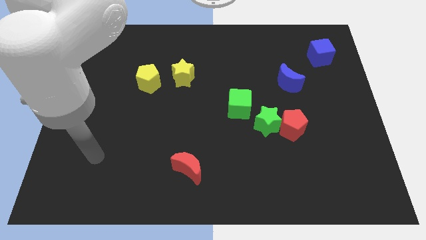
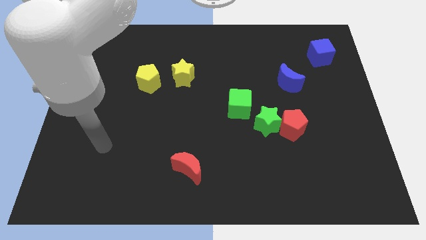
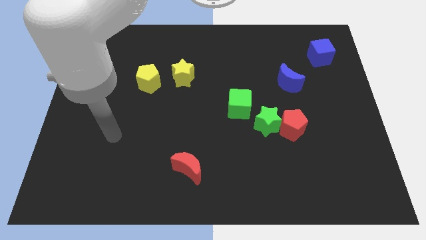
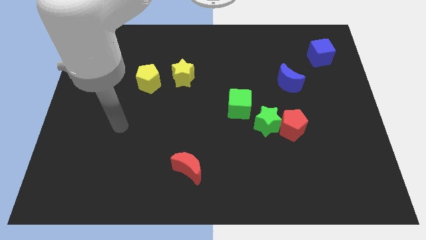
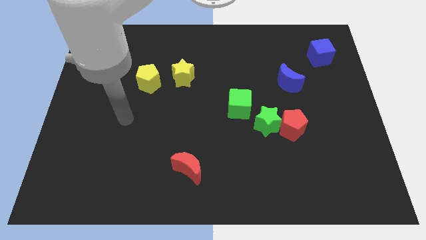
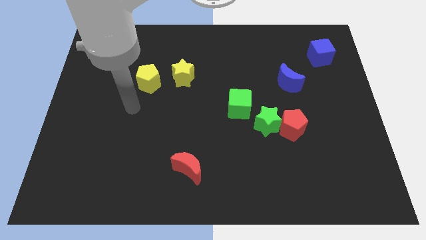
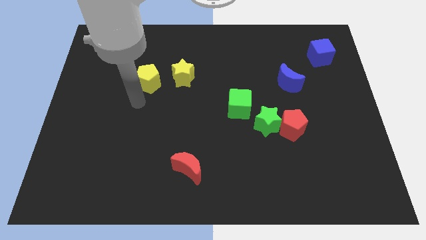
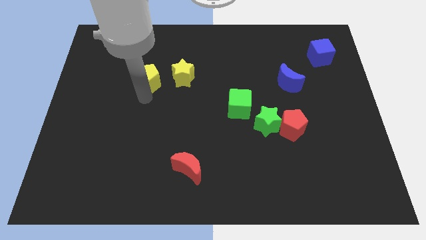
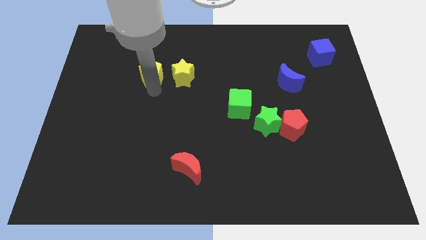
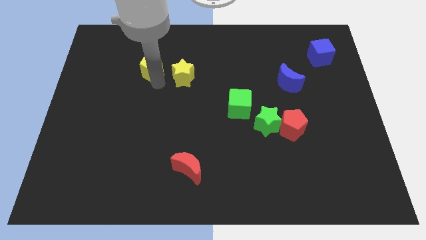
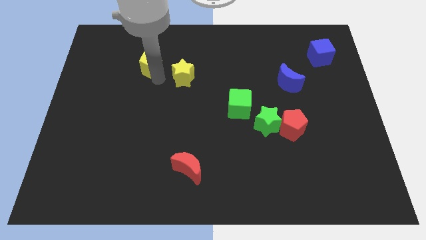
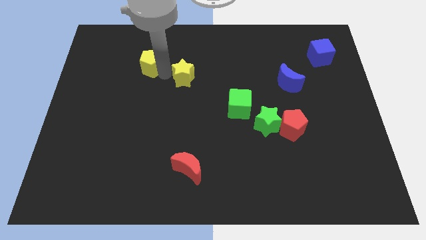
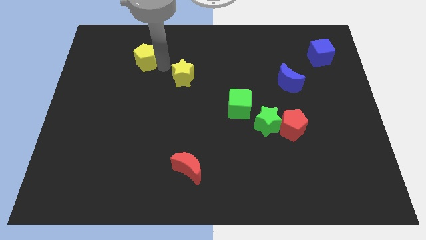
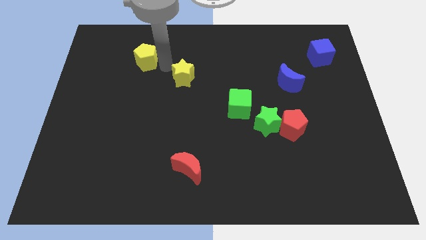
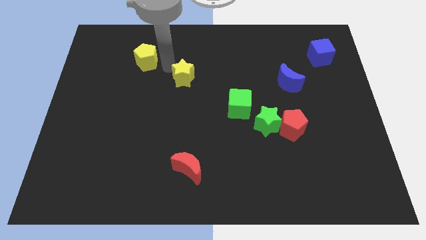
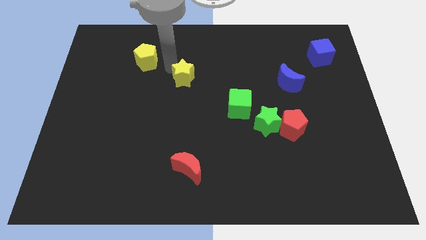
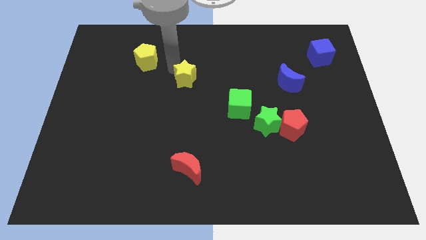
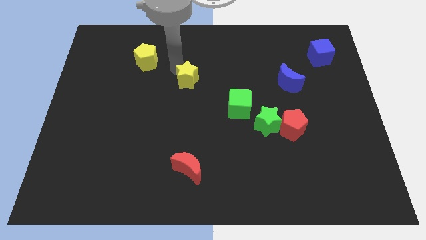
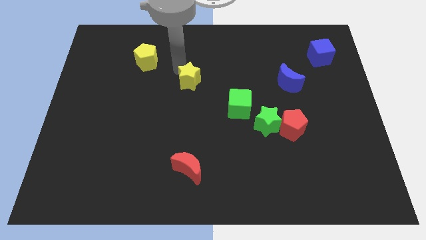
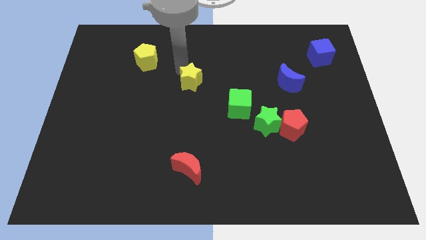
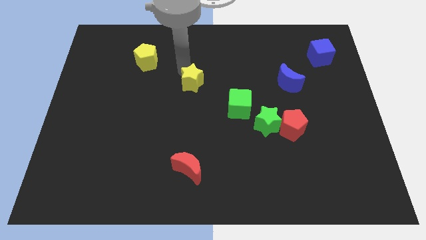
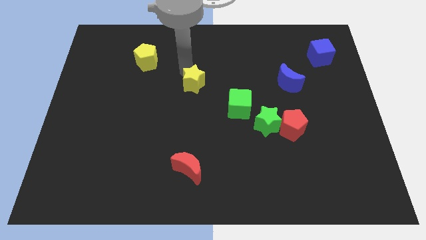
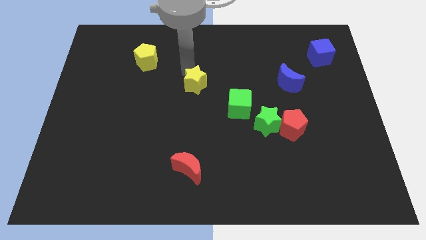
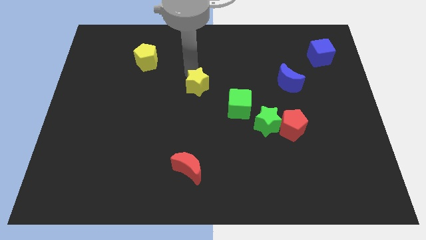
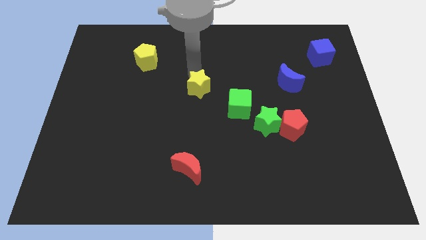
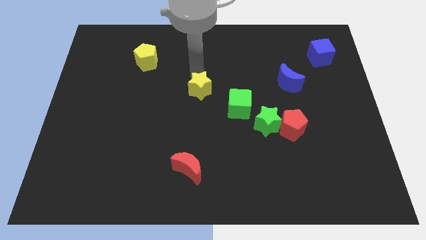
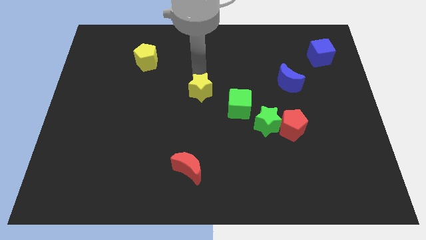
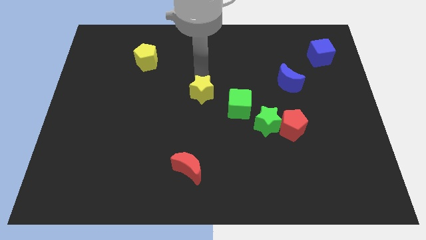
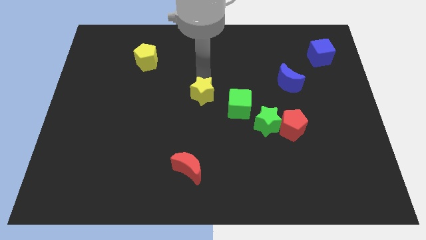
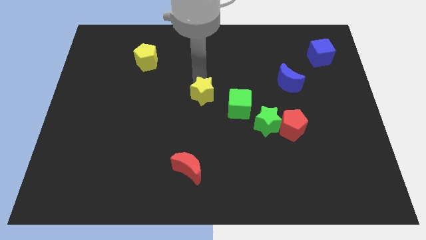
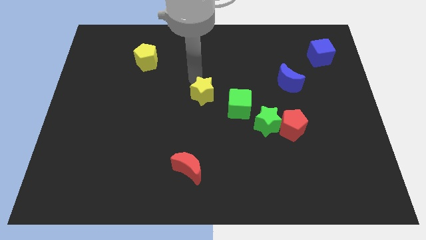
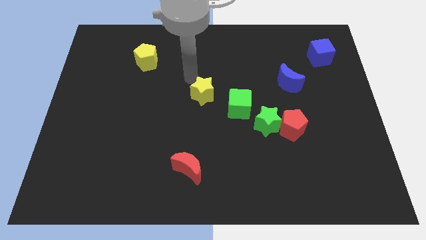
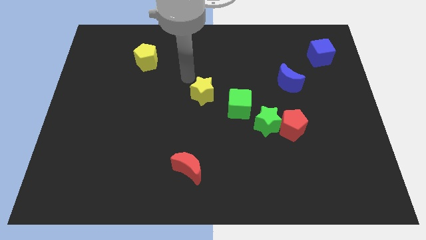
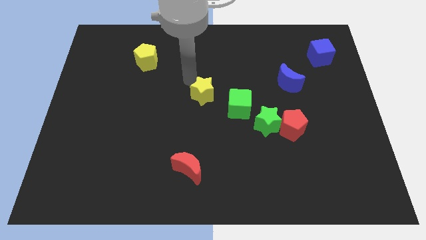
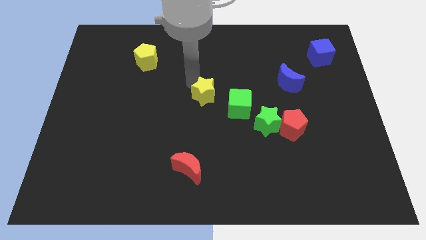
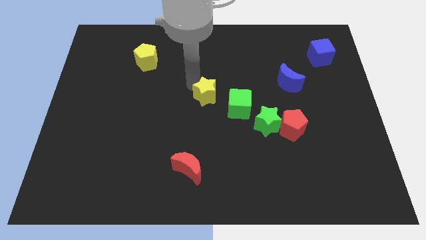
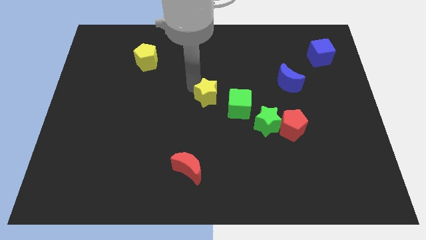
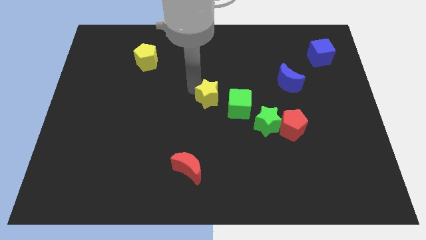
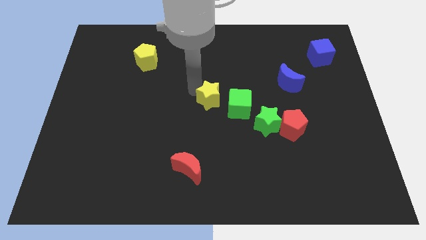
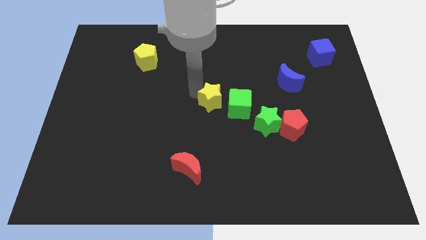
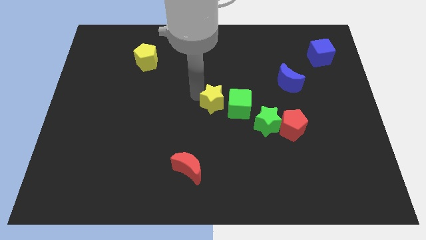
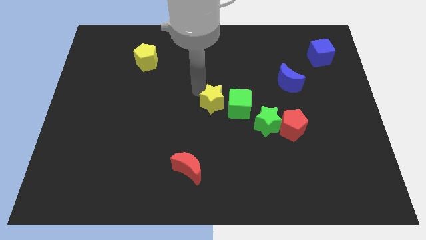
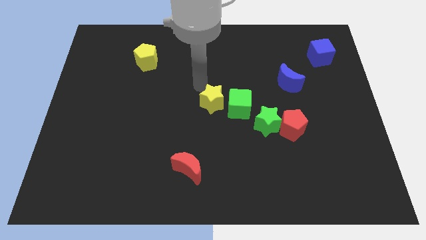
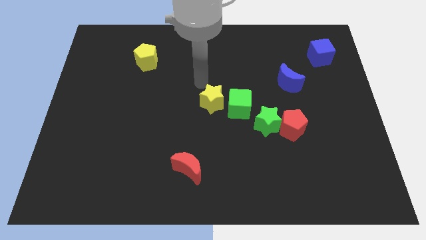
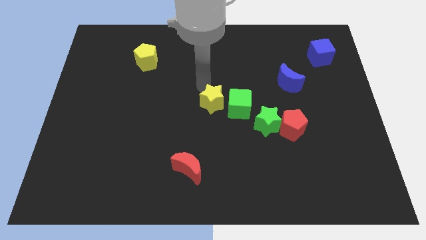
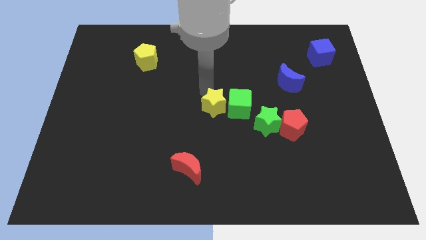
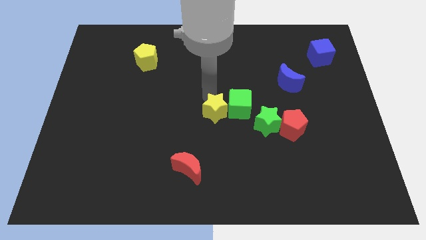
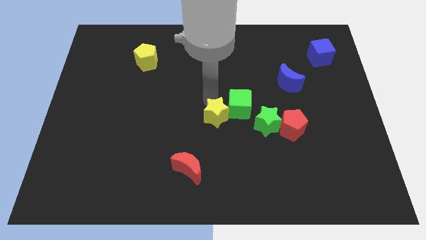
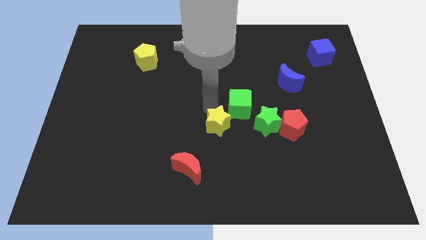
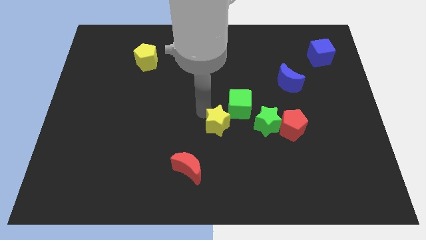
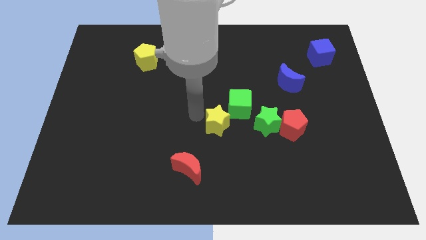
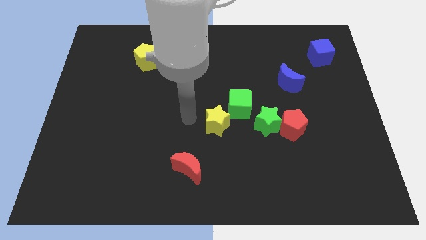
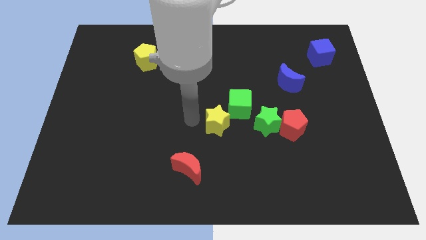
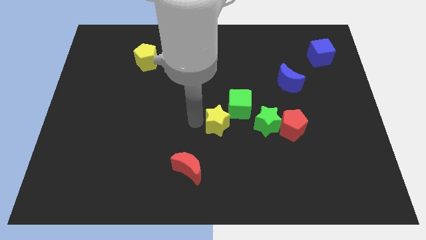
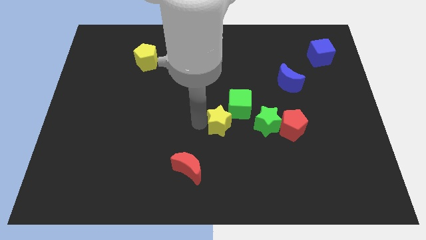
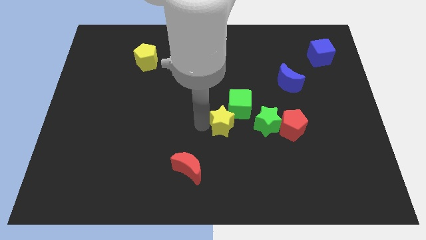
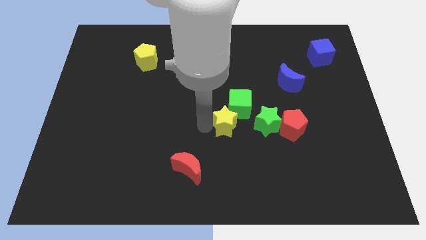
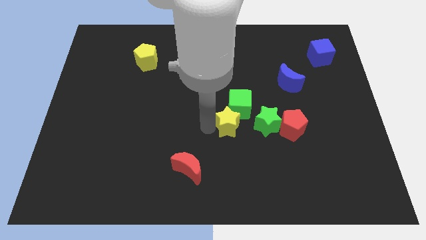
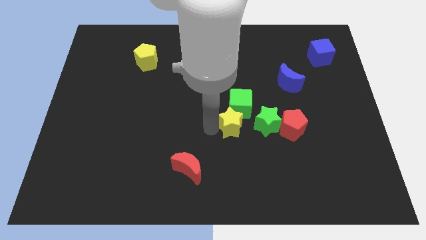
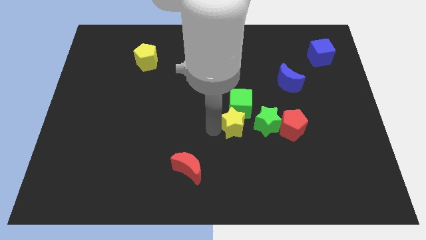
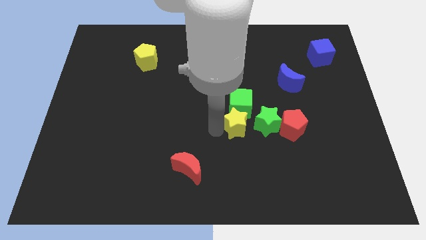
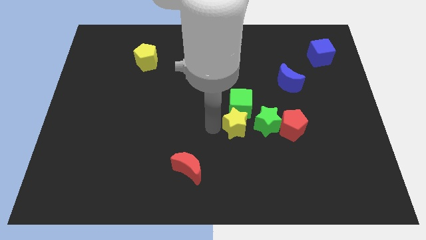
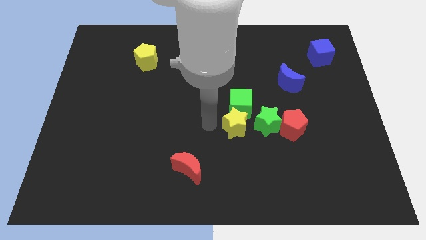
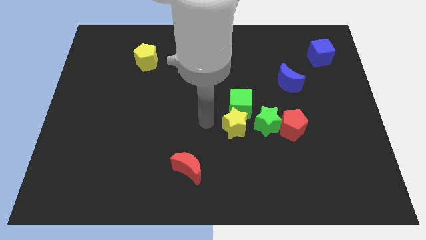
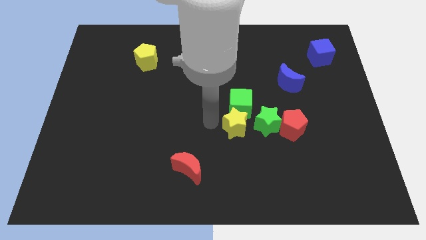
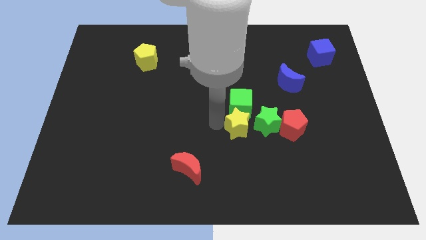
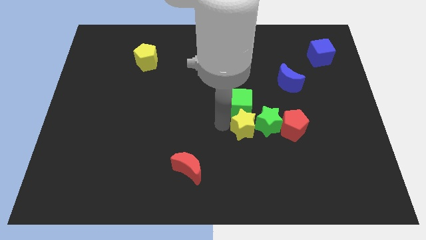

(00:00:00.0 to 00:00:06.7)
push the yellow star next to the green star
